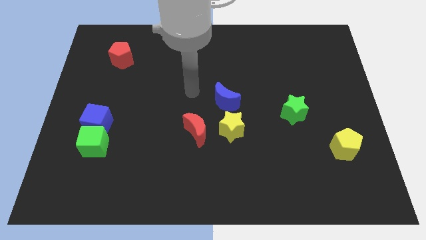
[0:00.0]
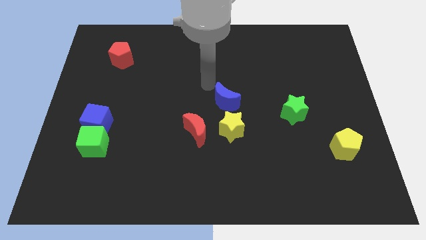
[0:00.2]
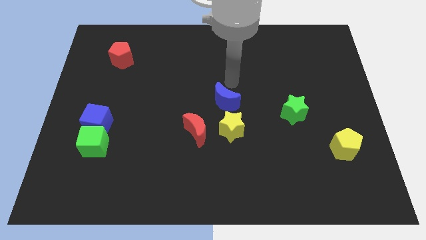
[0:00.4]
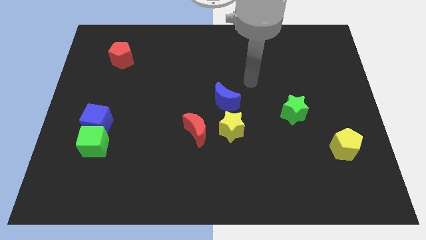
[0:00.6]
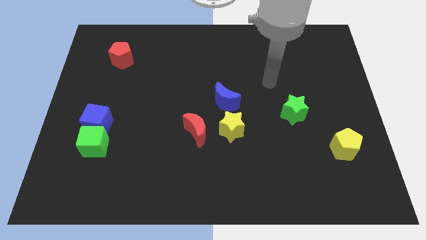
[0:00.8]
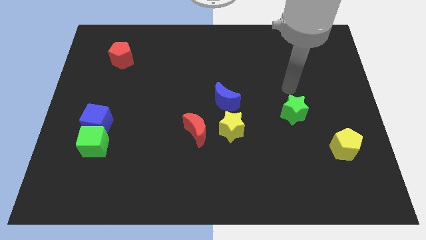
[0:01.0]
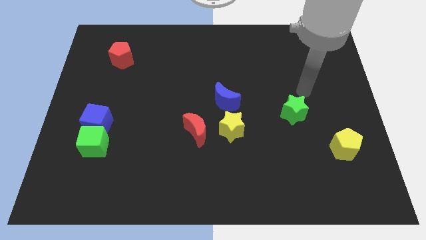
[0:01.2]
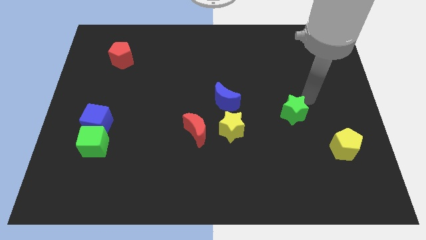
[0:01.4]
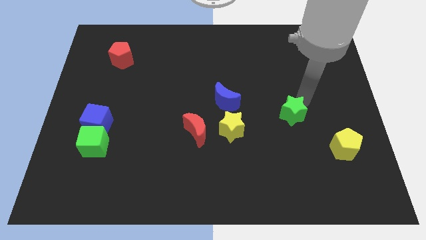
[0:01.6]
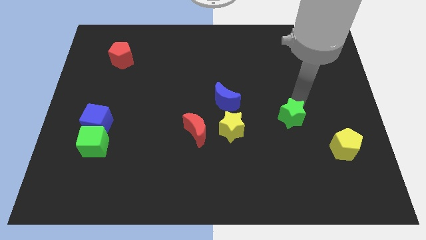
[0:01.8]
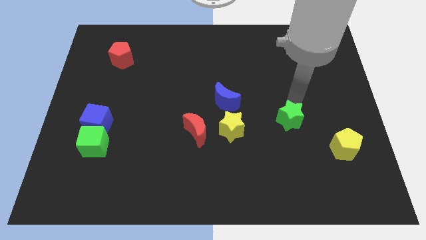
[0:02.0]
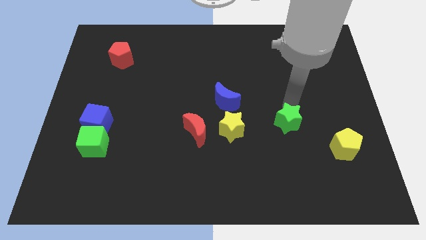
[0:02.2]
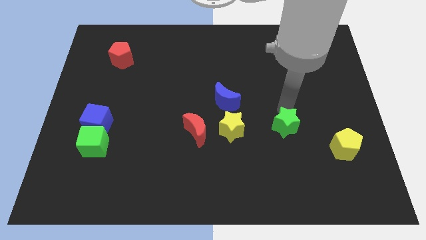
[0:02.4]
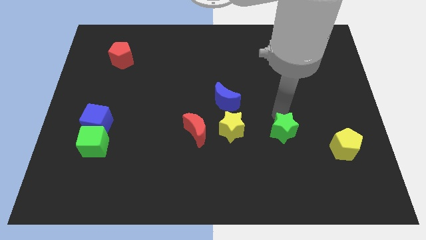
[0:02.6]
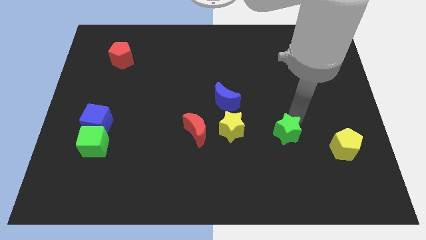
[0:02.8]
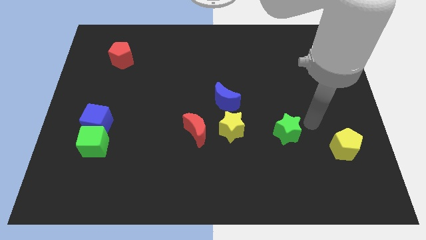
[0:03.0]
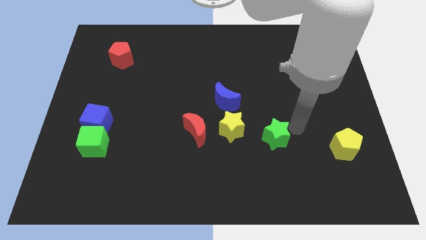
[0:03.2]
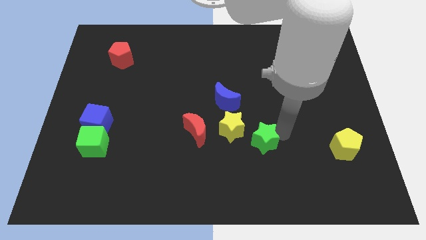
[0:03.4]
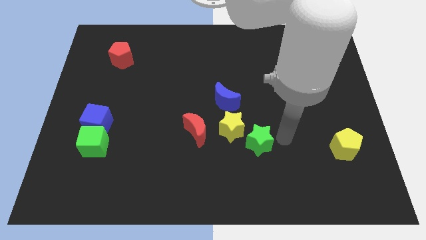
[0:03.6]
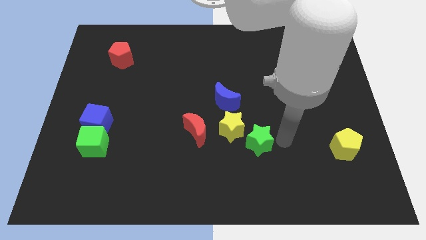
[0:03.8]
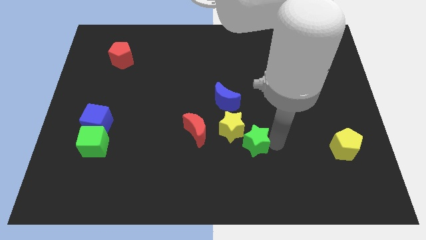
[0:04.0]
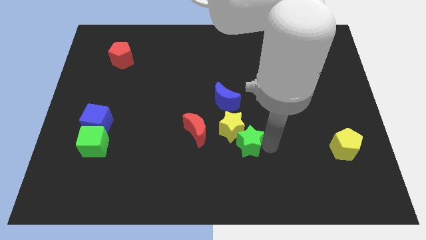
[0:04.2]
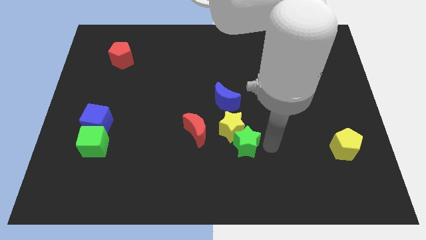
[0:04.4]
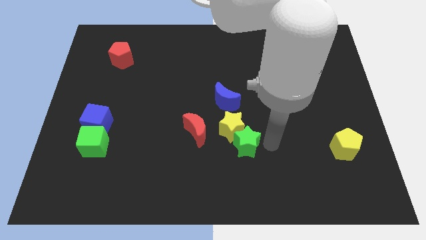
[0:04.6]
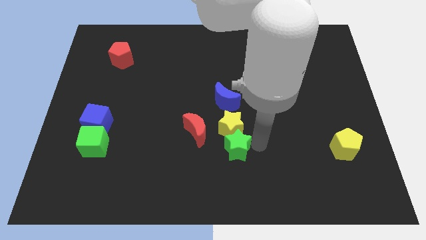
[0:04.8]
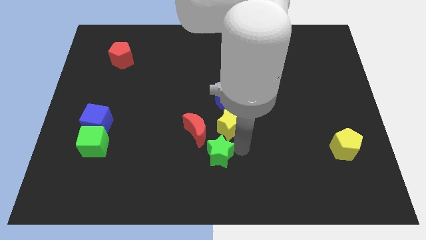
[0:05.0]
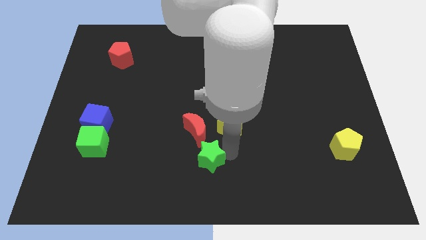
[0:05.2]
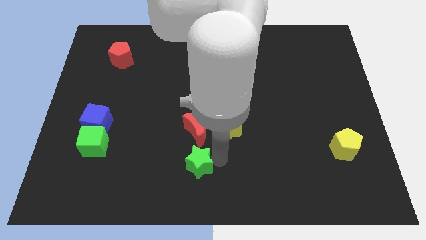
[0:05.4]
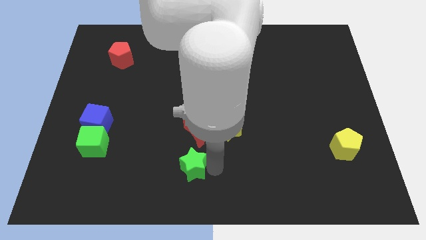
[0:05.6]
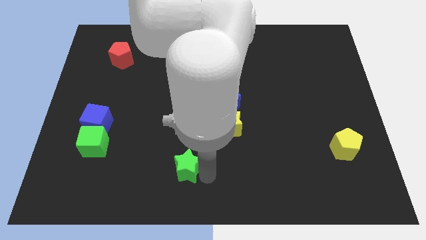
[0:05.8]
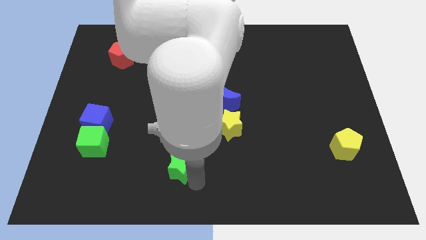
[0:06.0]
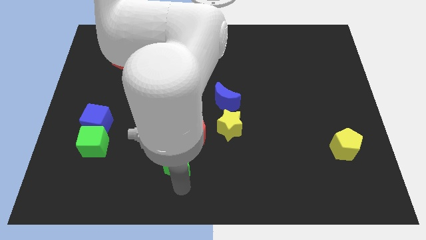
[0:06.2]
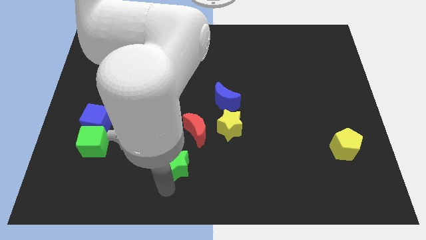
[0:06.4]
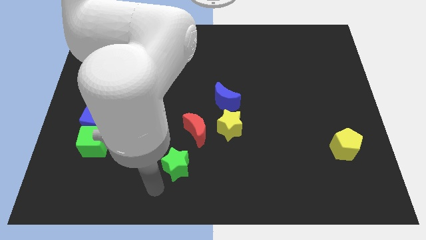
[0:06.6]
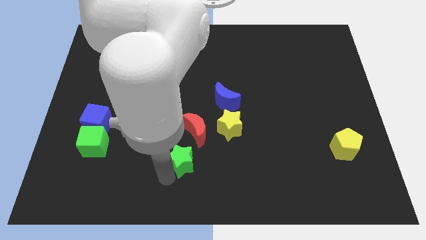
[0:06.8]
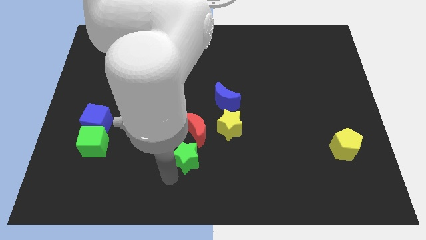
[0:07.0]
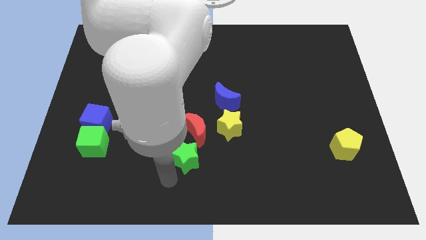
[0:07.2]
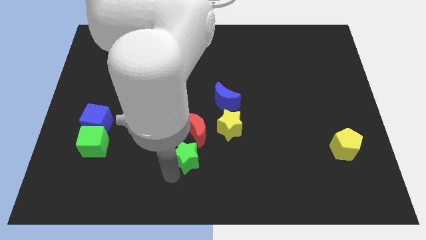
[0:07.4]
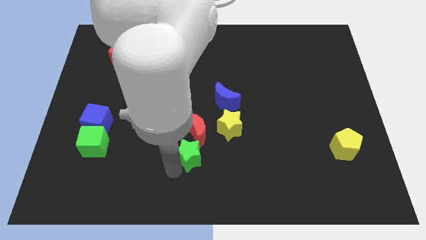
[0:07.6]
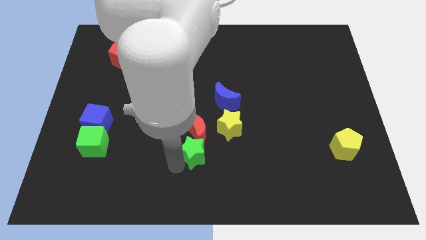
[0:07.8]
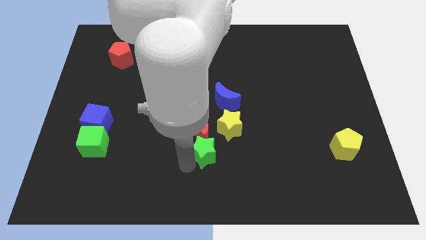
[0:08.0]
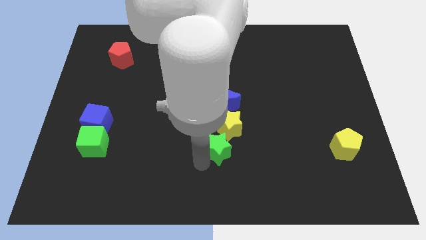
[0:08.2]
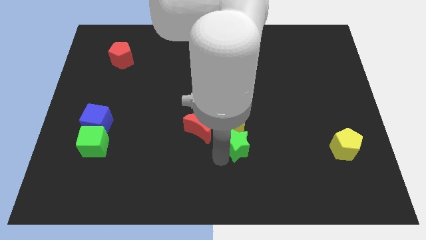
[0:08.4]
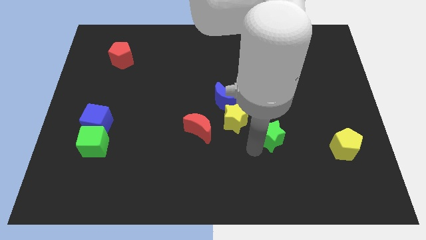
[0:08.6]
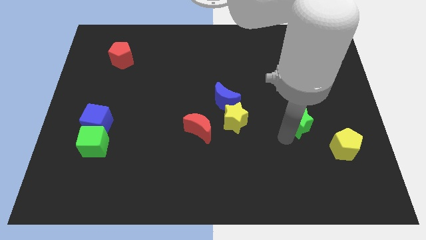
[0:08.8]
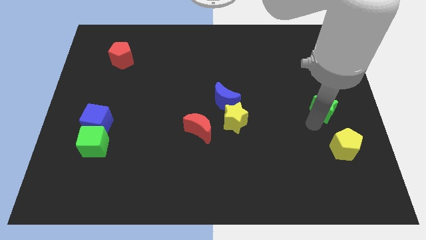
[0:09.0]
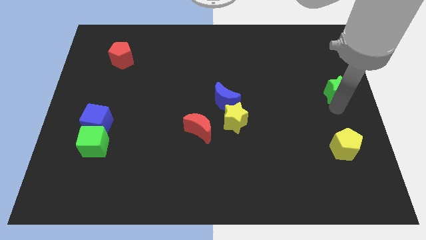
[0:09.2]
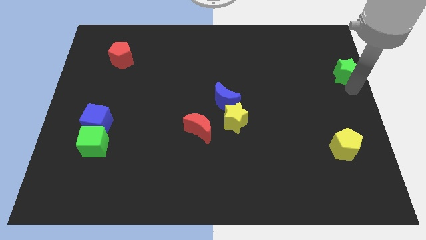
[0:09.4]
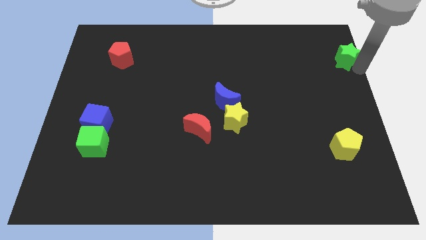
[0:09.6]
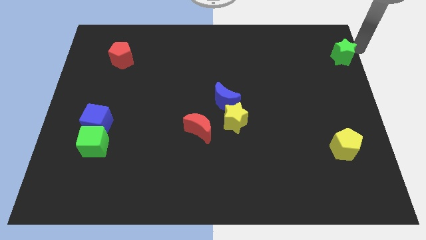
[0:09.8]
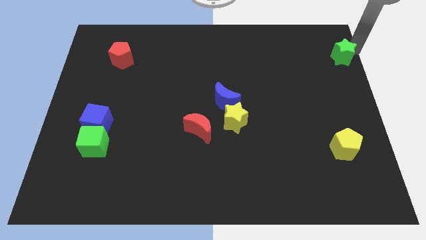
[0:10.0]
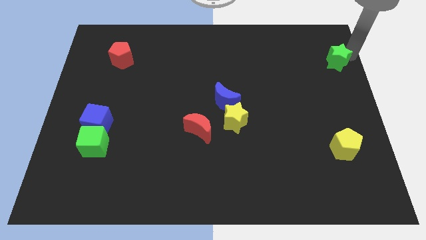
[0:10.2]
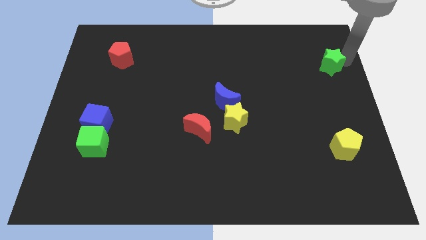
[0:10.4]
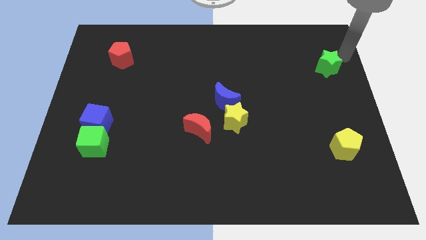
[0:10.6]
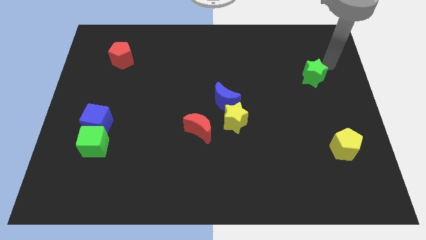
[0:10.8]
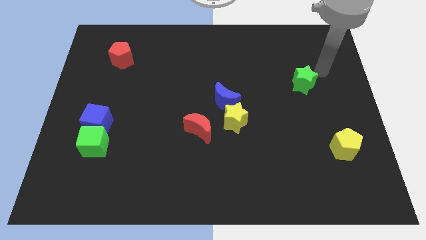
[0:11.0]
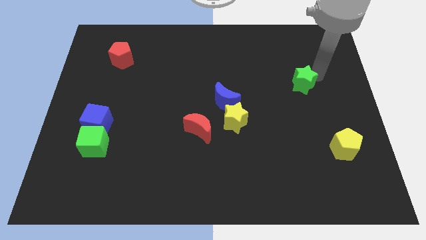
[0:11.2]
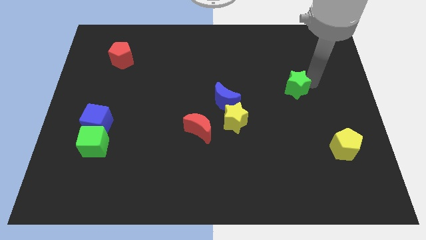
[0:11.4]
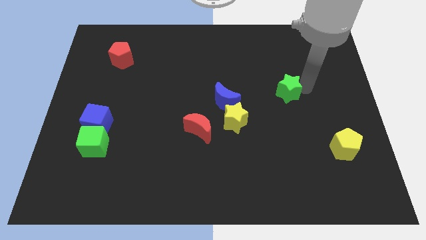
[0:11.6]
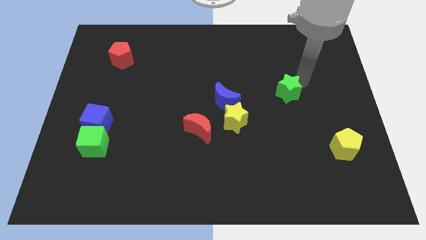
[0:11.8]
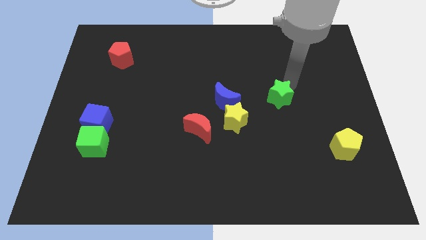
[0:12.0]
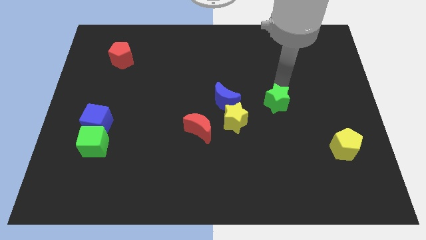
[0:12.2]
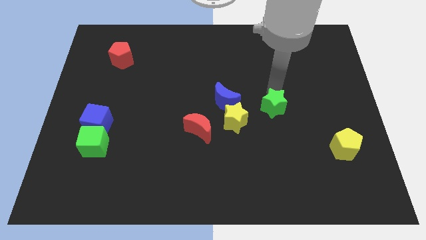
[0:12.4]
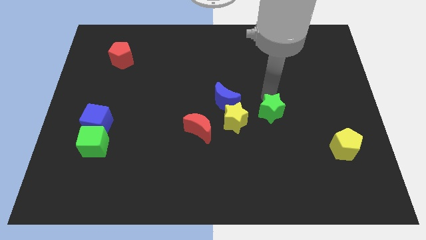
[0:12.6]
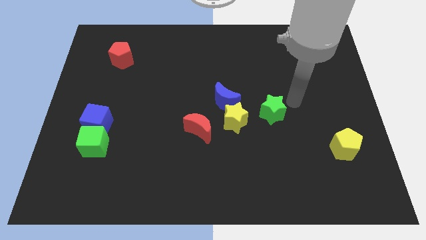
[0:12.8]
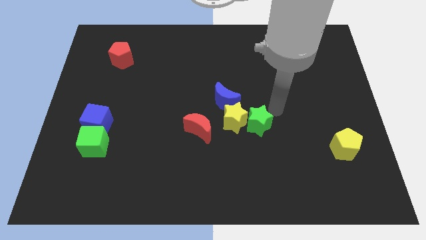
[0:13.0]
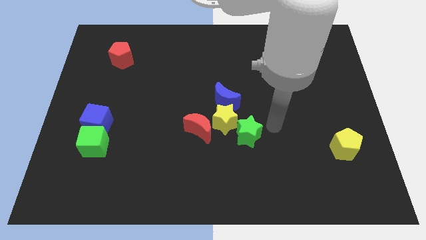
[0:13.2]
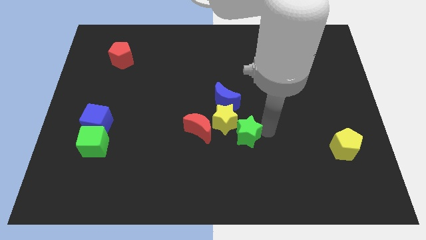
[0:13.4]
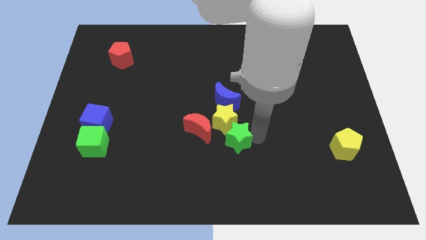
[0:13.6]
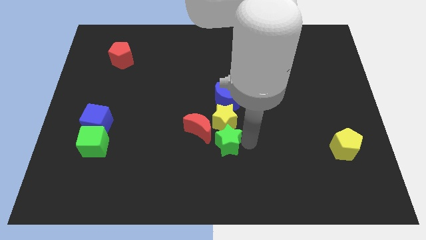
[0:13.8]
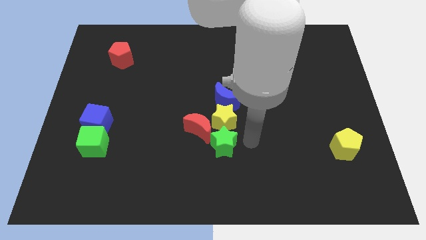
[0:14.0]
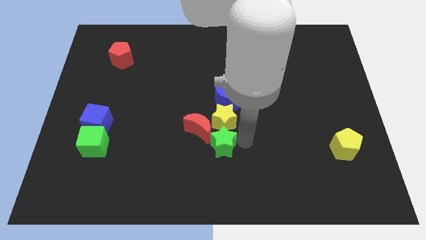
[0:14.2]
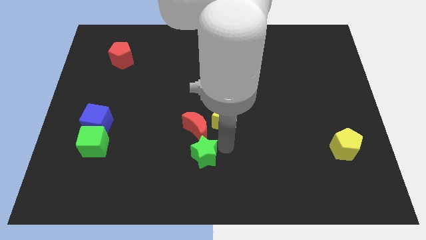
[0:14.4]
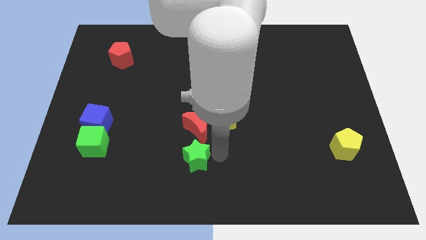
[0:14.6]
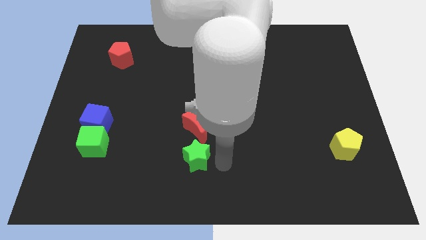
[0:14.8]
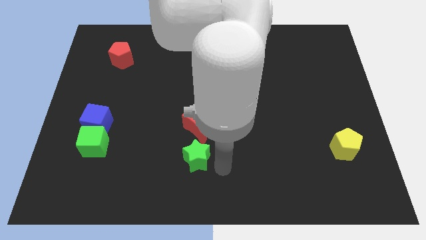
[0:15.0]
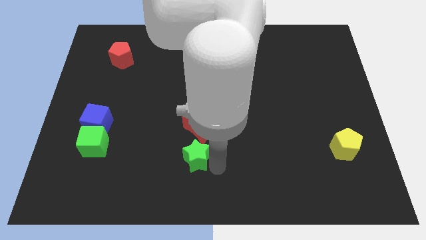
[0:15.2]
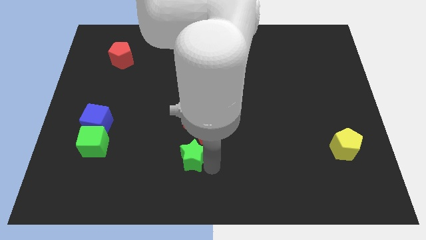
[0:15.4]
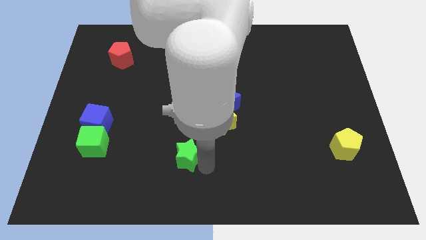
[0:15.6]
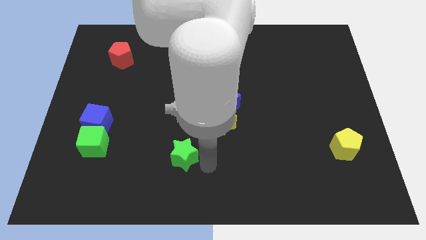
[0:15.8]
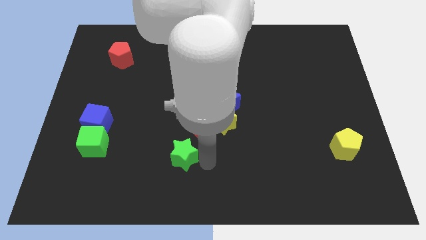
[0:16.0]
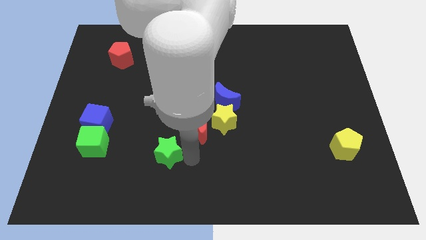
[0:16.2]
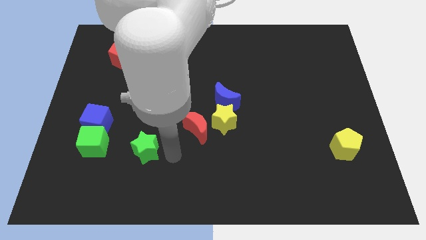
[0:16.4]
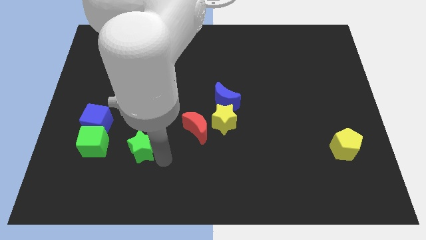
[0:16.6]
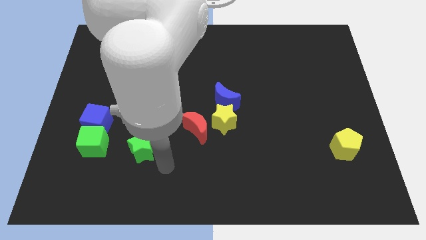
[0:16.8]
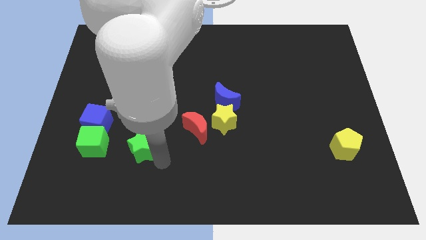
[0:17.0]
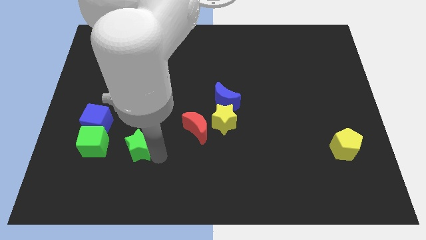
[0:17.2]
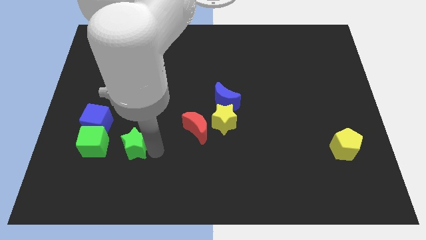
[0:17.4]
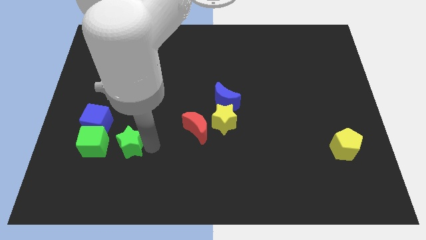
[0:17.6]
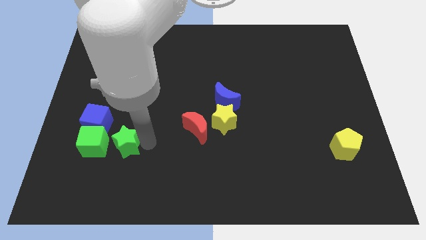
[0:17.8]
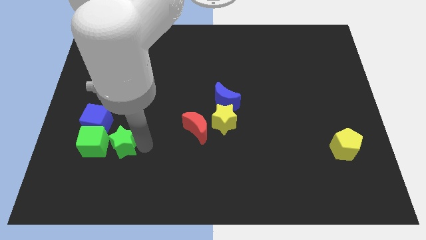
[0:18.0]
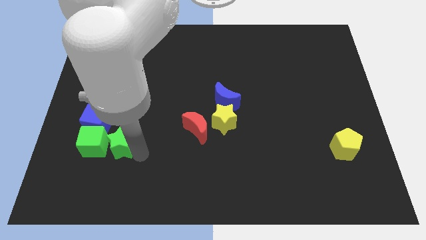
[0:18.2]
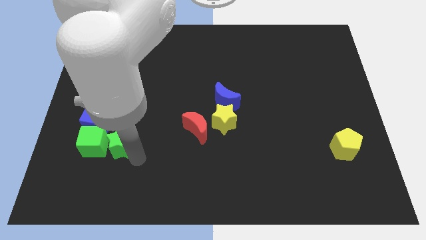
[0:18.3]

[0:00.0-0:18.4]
push the green star close to the green cube
